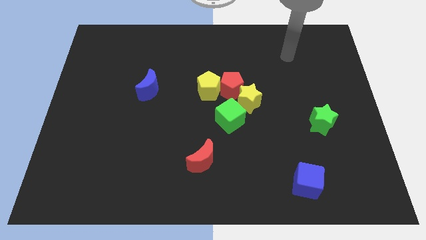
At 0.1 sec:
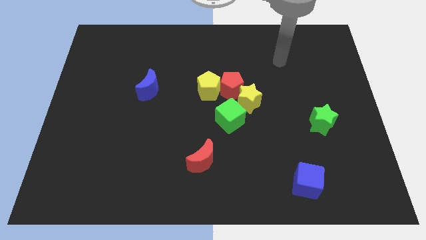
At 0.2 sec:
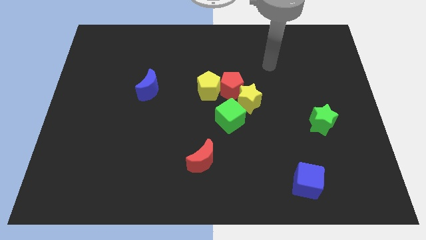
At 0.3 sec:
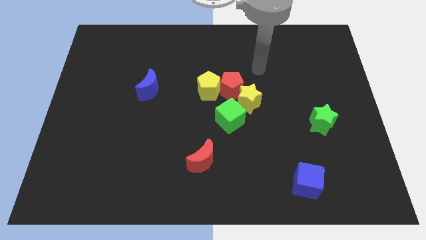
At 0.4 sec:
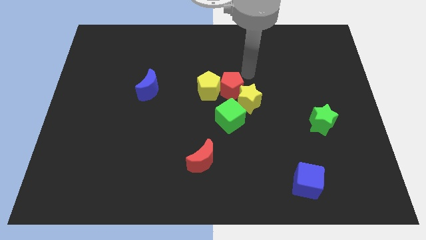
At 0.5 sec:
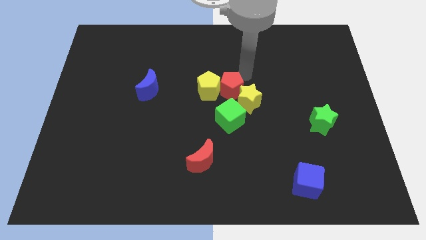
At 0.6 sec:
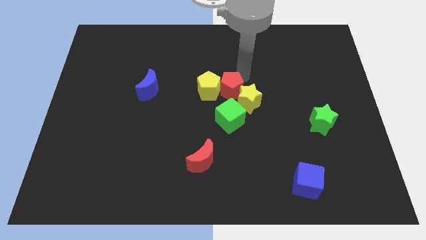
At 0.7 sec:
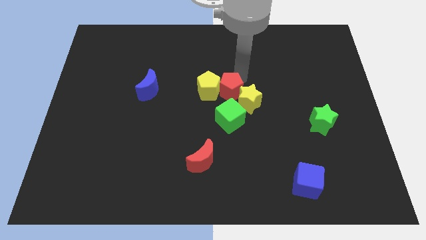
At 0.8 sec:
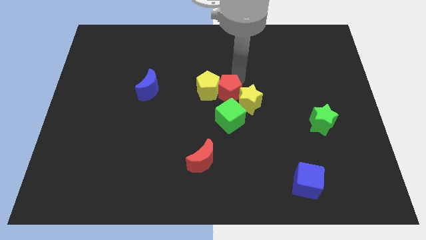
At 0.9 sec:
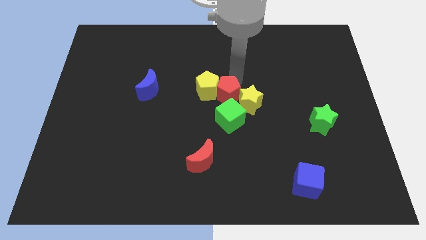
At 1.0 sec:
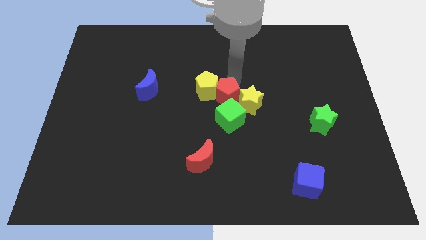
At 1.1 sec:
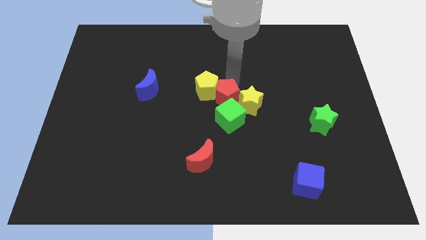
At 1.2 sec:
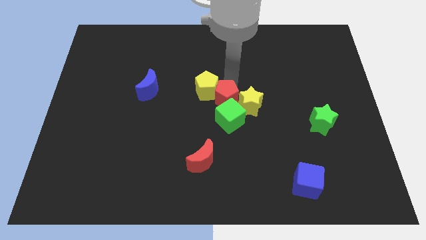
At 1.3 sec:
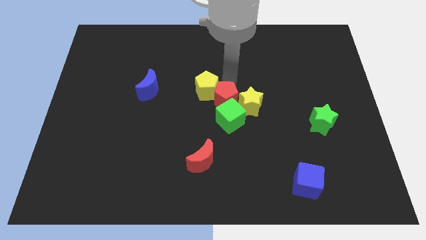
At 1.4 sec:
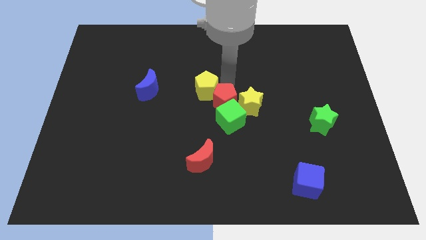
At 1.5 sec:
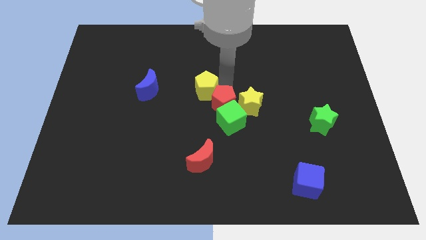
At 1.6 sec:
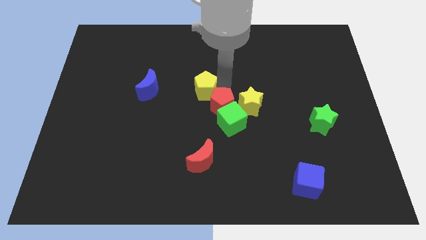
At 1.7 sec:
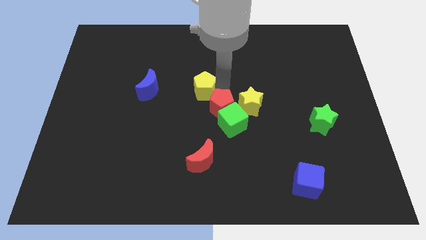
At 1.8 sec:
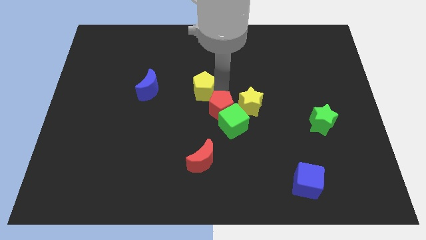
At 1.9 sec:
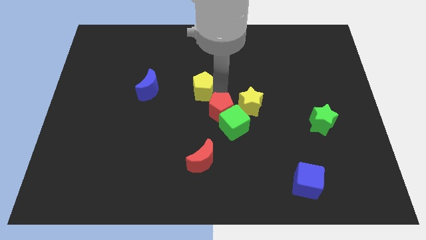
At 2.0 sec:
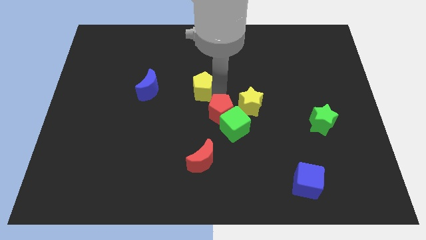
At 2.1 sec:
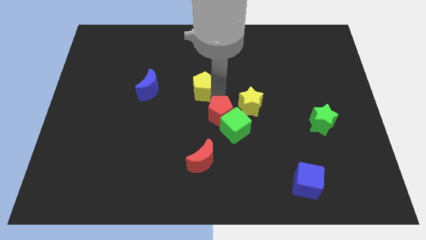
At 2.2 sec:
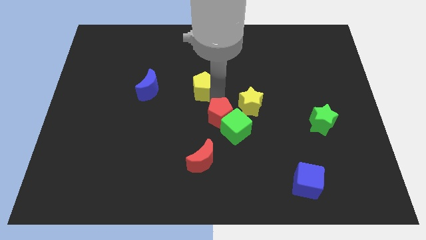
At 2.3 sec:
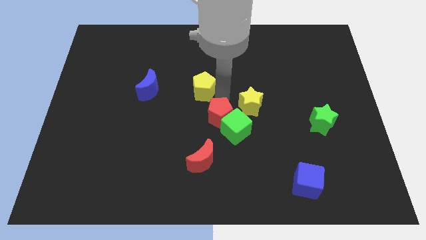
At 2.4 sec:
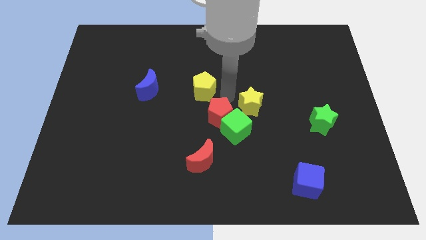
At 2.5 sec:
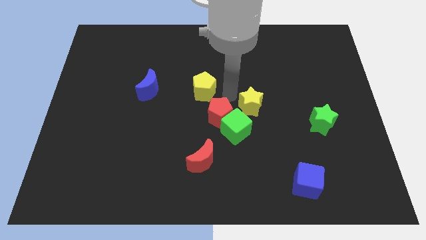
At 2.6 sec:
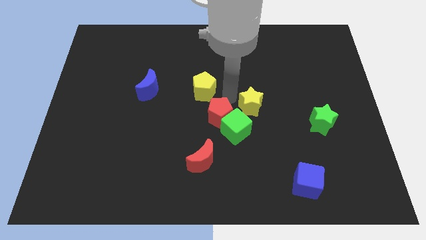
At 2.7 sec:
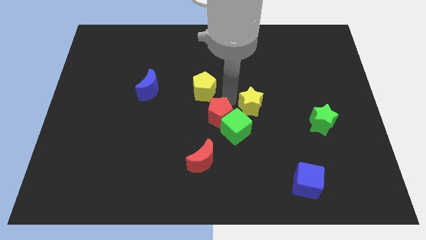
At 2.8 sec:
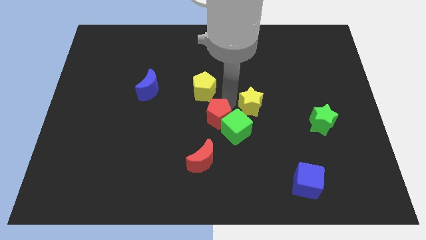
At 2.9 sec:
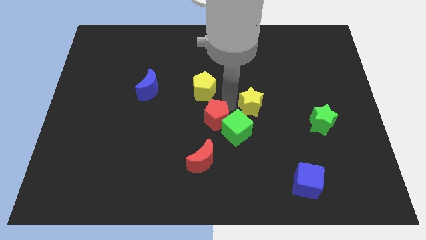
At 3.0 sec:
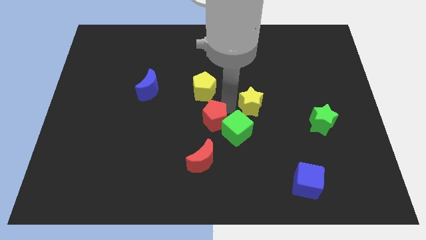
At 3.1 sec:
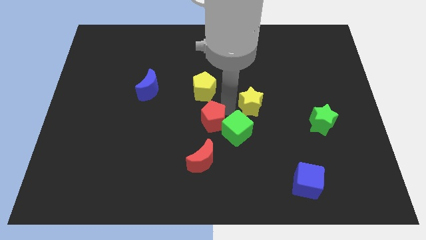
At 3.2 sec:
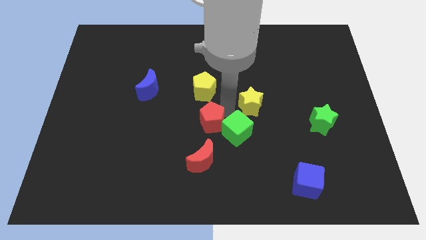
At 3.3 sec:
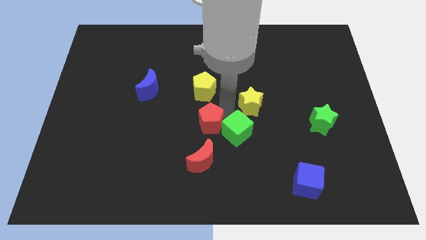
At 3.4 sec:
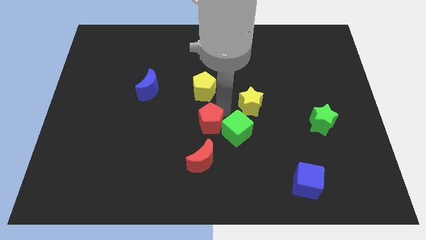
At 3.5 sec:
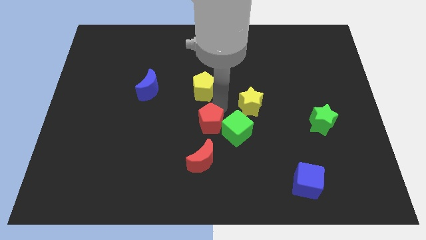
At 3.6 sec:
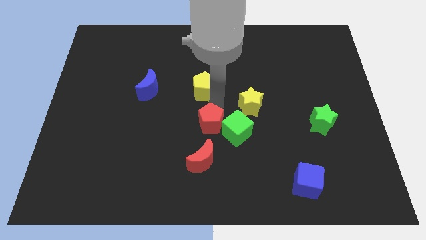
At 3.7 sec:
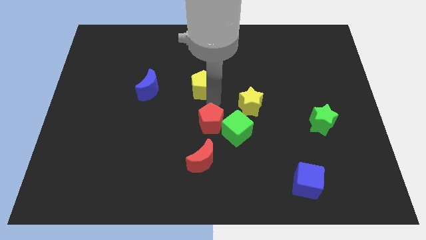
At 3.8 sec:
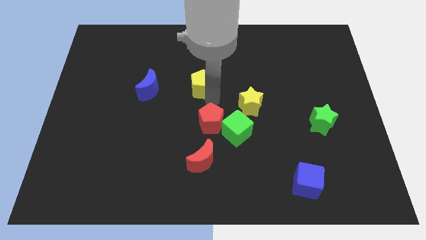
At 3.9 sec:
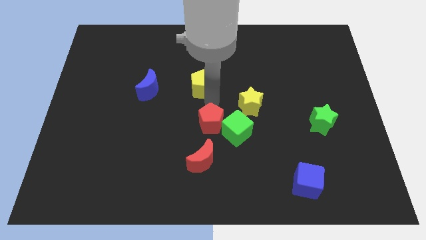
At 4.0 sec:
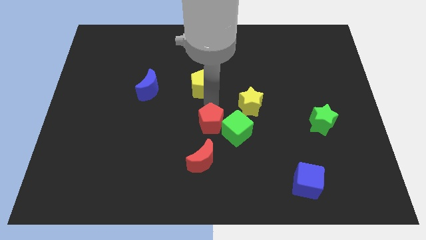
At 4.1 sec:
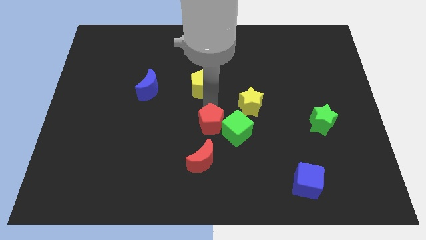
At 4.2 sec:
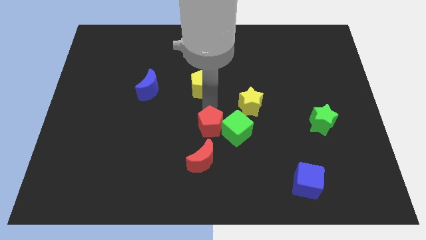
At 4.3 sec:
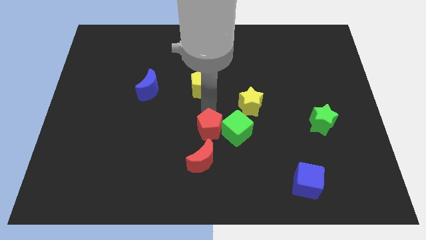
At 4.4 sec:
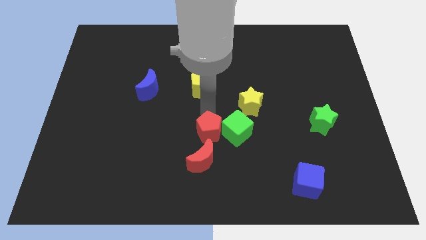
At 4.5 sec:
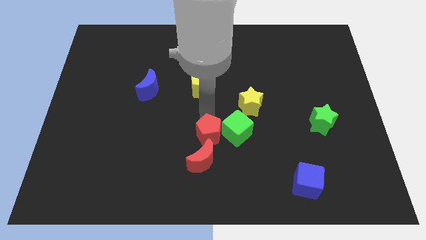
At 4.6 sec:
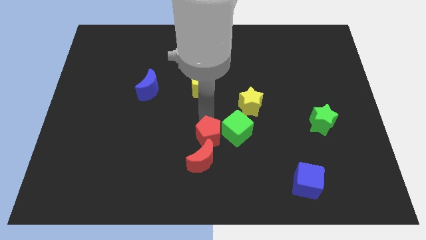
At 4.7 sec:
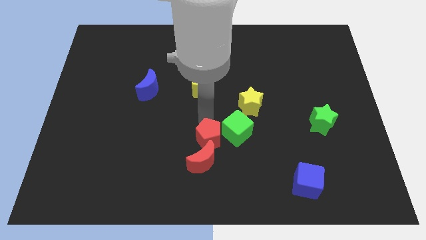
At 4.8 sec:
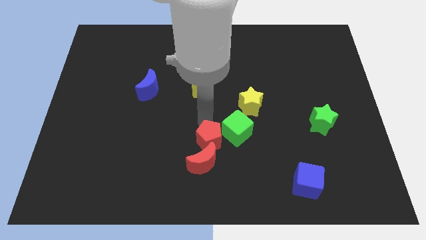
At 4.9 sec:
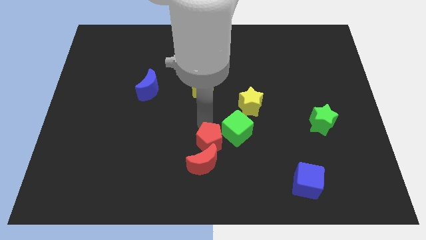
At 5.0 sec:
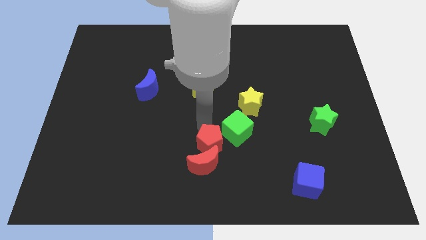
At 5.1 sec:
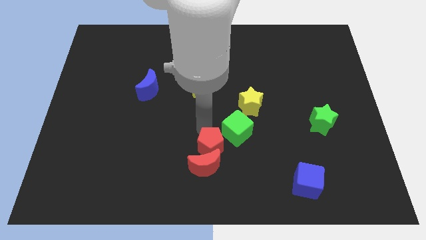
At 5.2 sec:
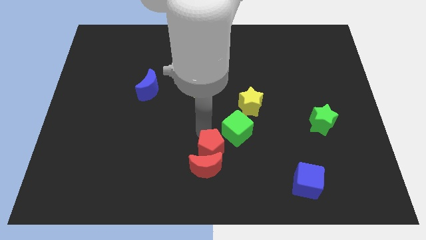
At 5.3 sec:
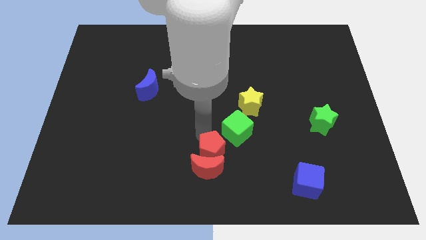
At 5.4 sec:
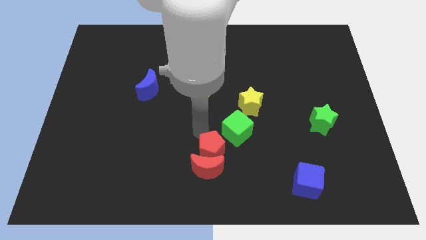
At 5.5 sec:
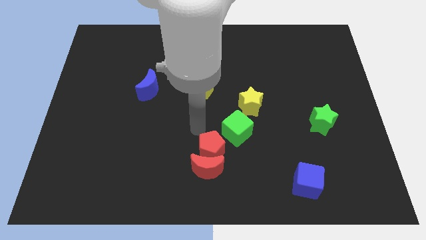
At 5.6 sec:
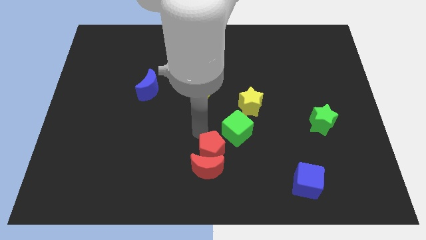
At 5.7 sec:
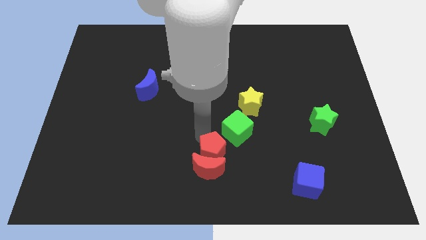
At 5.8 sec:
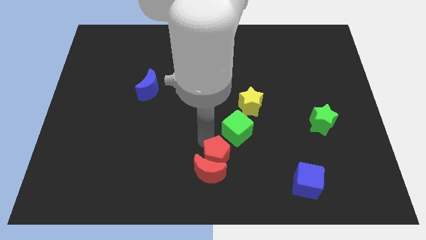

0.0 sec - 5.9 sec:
slide the red pentagon to the bottom
